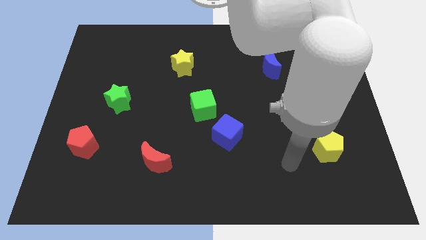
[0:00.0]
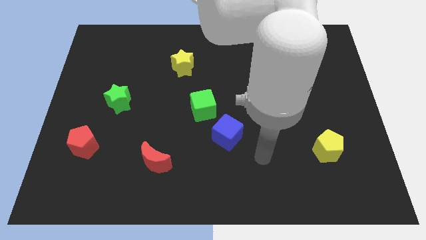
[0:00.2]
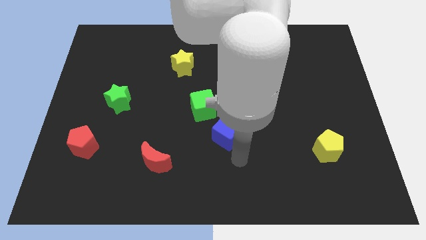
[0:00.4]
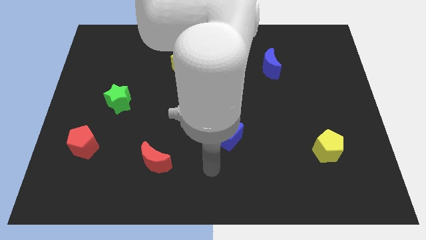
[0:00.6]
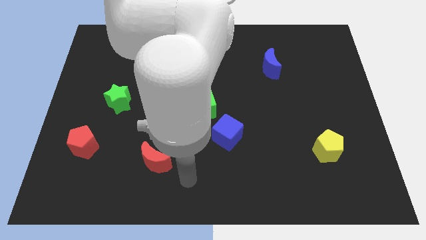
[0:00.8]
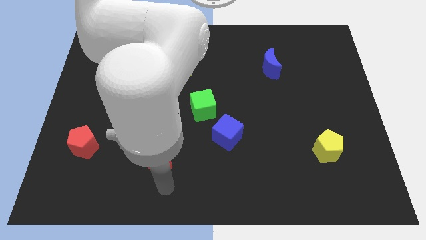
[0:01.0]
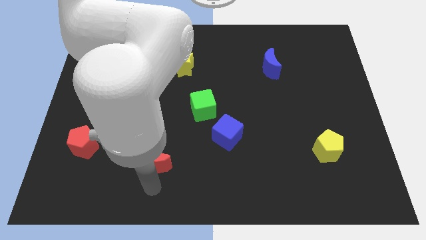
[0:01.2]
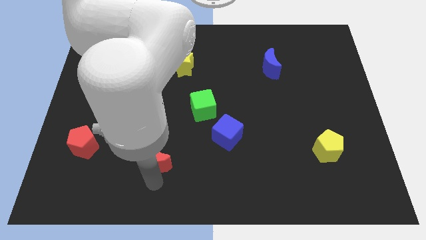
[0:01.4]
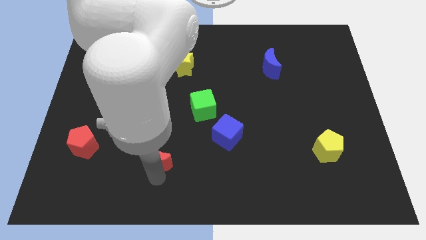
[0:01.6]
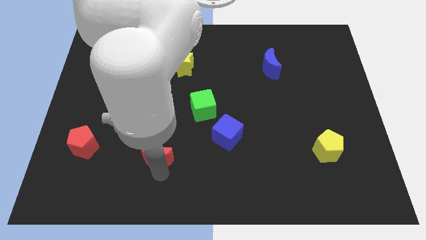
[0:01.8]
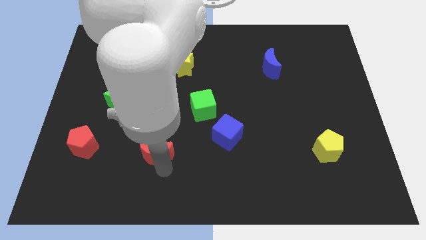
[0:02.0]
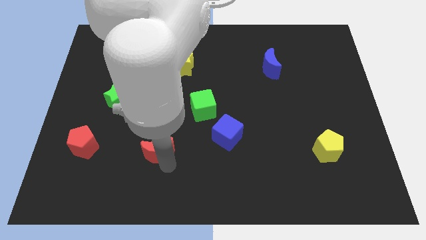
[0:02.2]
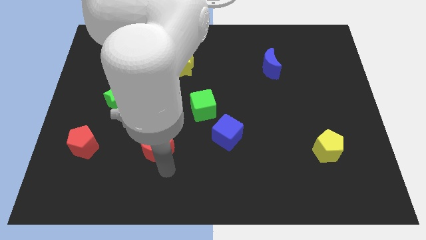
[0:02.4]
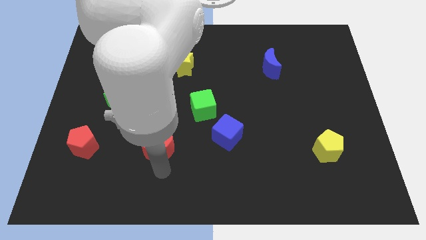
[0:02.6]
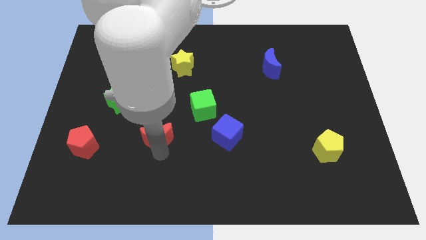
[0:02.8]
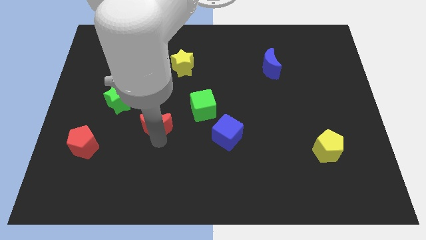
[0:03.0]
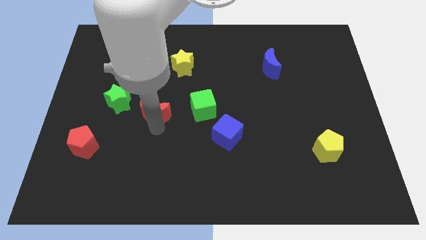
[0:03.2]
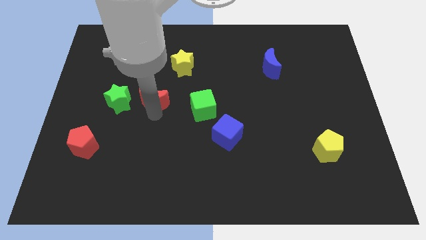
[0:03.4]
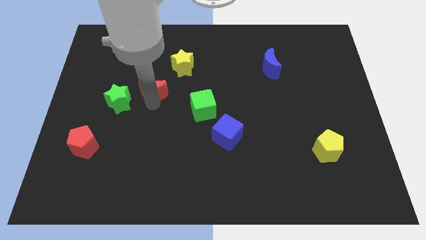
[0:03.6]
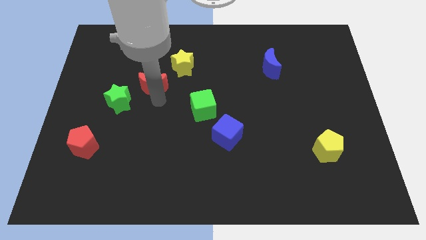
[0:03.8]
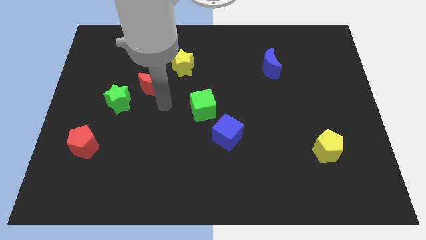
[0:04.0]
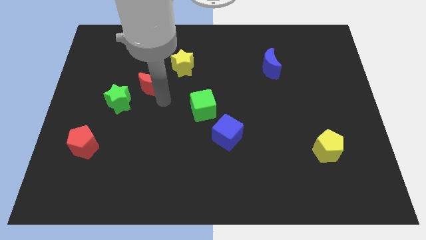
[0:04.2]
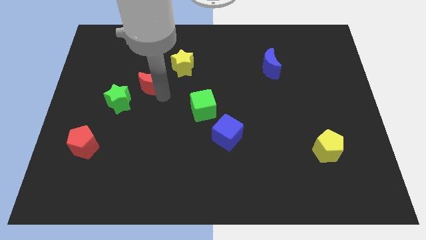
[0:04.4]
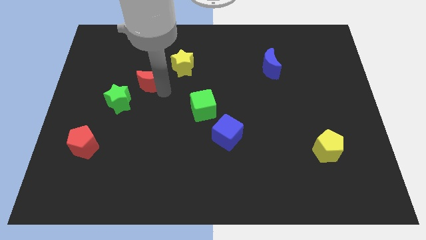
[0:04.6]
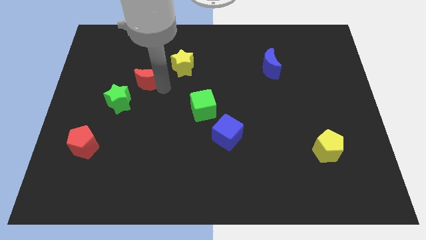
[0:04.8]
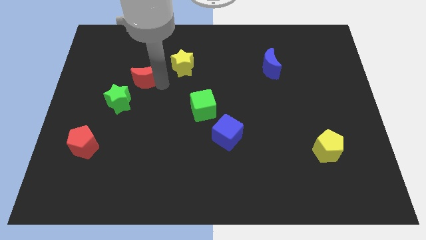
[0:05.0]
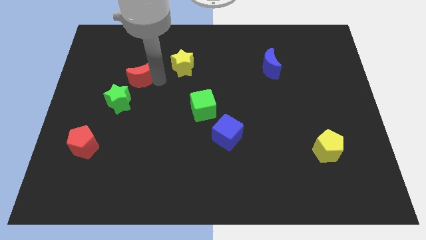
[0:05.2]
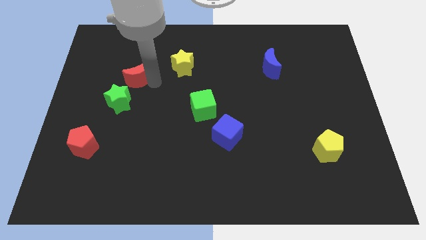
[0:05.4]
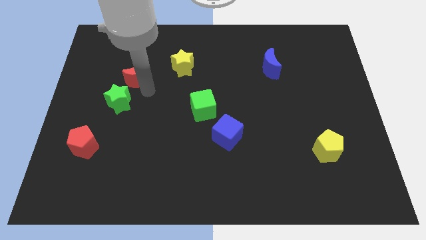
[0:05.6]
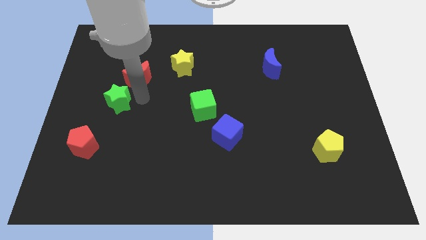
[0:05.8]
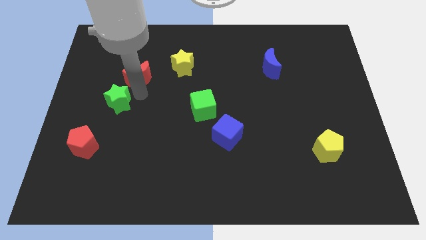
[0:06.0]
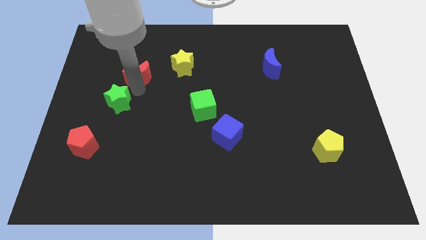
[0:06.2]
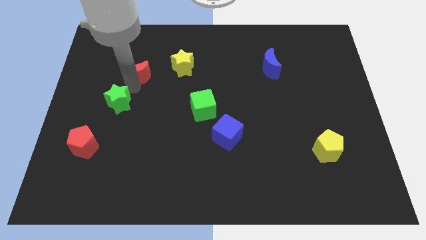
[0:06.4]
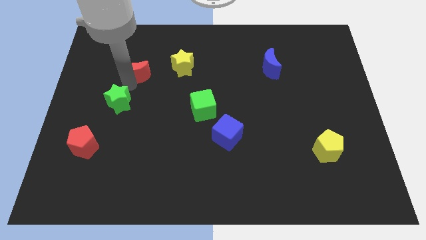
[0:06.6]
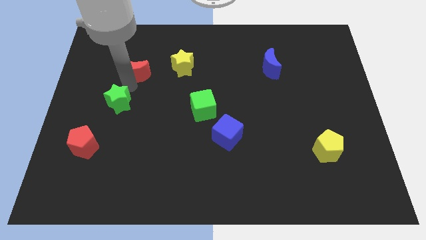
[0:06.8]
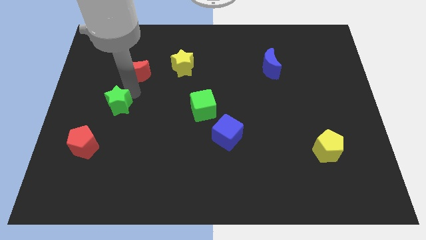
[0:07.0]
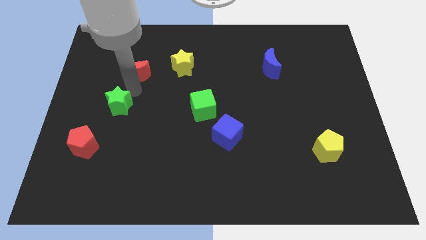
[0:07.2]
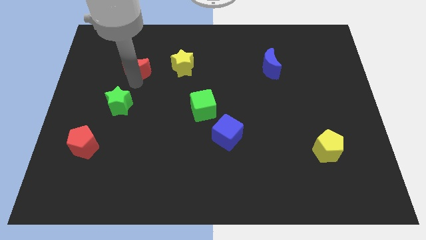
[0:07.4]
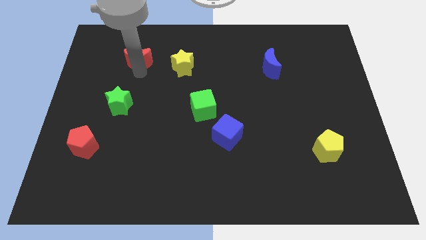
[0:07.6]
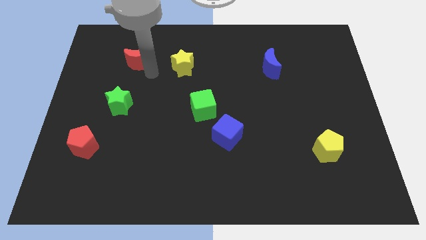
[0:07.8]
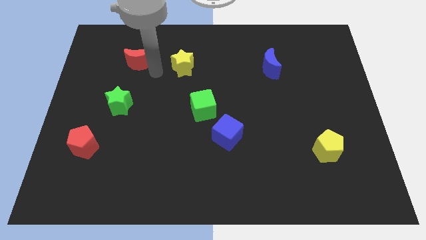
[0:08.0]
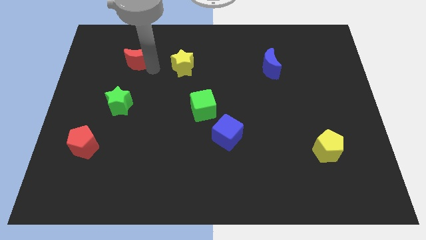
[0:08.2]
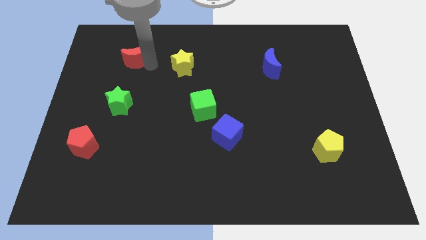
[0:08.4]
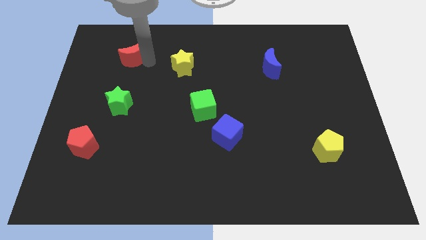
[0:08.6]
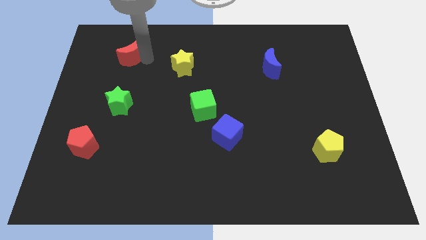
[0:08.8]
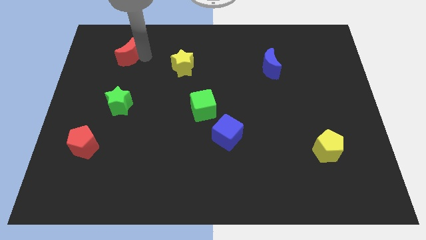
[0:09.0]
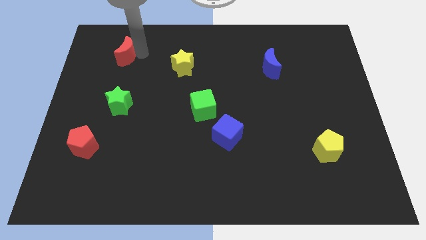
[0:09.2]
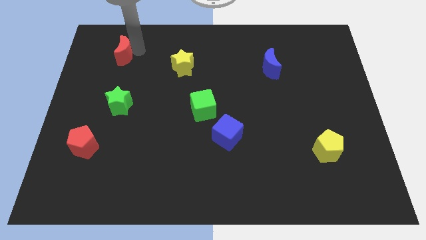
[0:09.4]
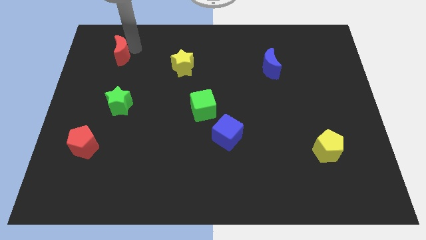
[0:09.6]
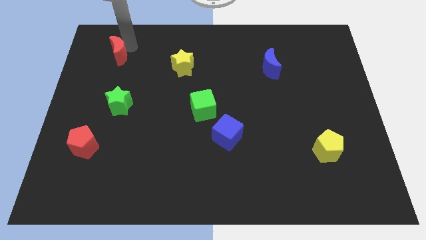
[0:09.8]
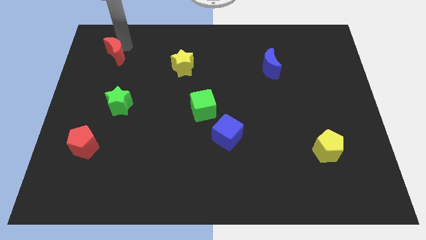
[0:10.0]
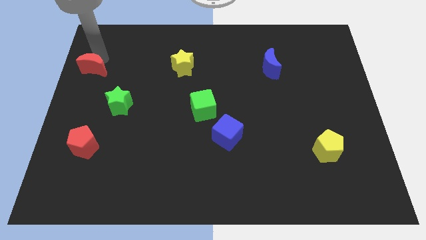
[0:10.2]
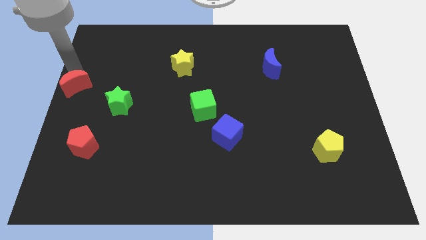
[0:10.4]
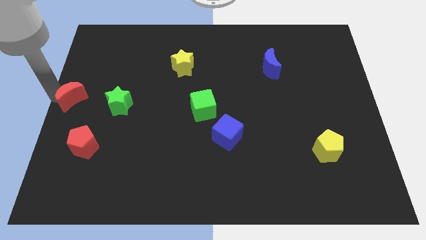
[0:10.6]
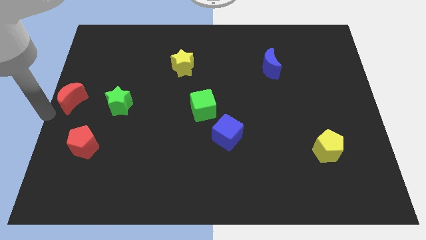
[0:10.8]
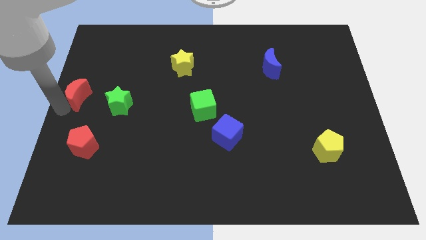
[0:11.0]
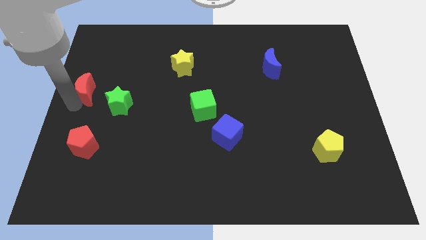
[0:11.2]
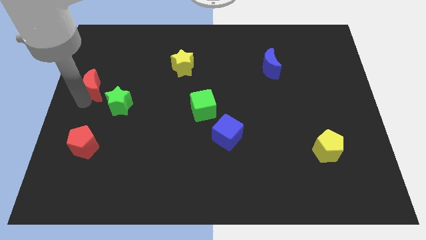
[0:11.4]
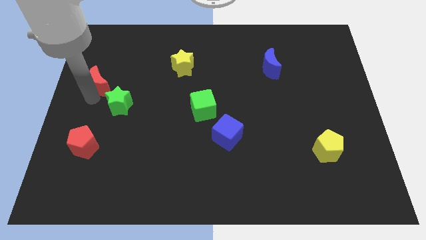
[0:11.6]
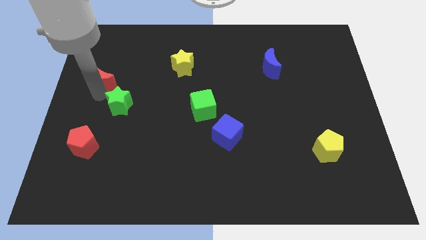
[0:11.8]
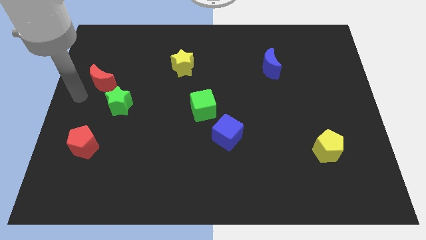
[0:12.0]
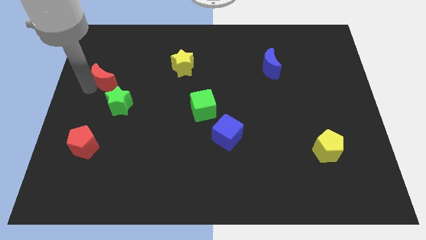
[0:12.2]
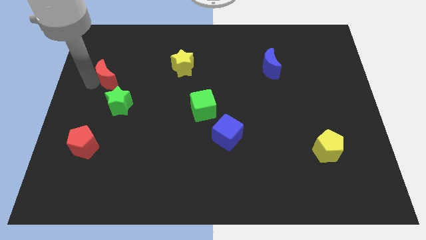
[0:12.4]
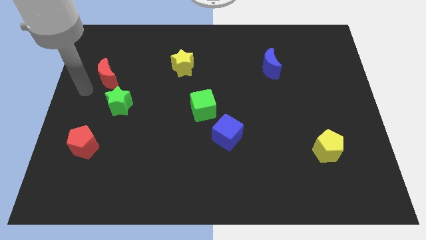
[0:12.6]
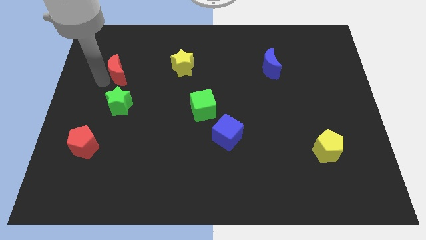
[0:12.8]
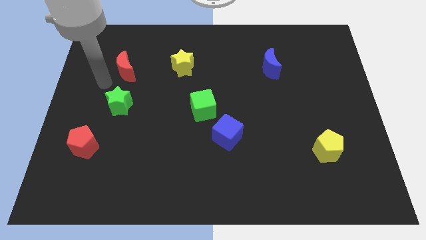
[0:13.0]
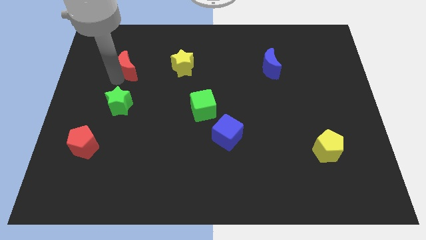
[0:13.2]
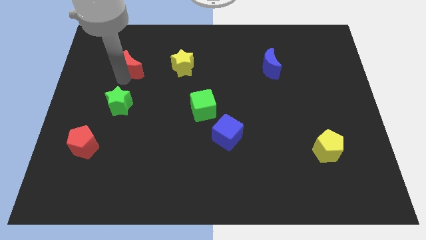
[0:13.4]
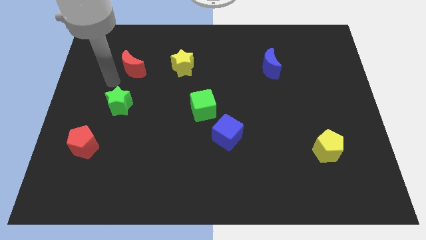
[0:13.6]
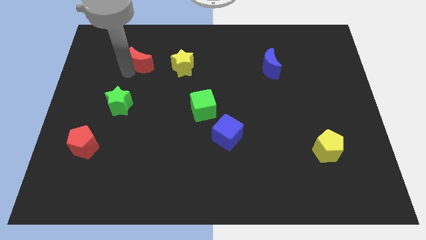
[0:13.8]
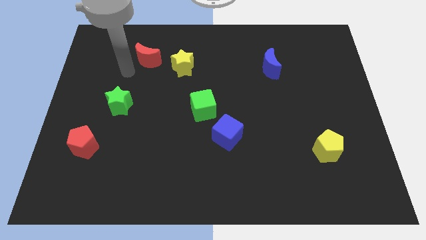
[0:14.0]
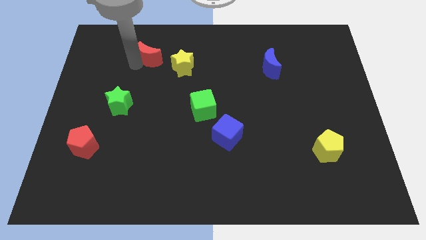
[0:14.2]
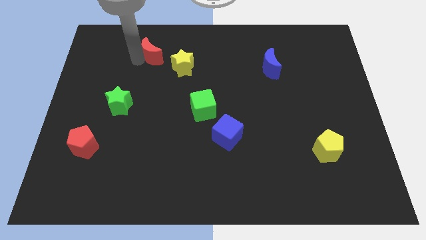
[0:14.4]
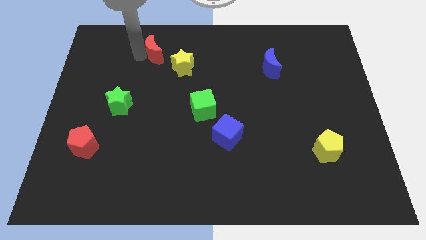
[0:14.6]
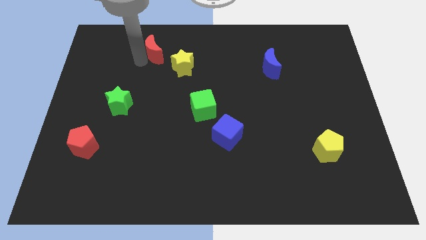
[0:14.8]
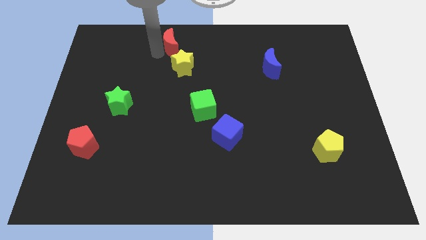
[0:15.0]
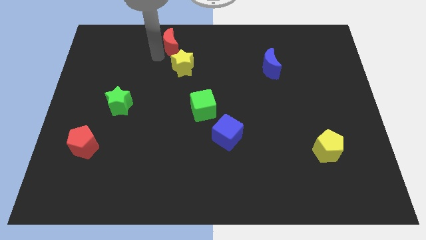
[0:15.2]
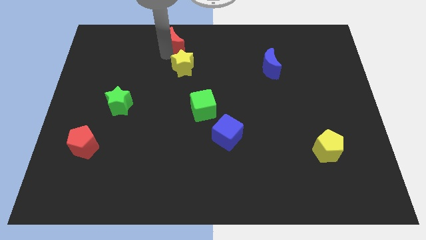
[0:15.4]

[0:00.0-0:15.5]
put the red moon to the top side
